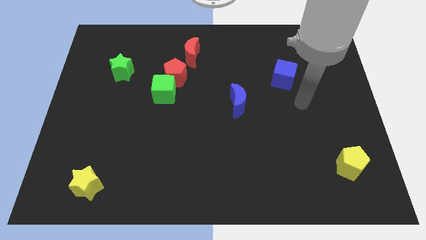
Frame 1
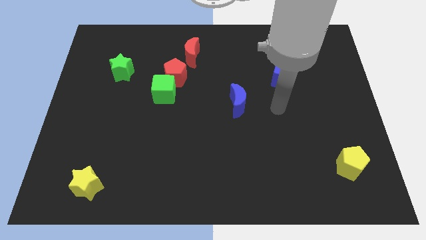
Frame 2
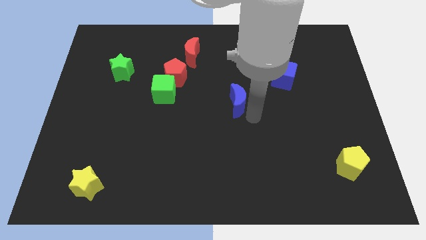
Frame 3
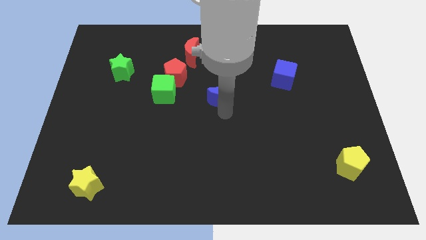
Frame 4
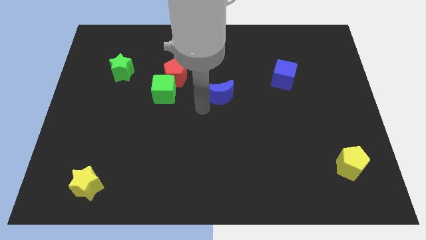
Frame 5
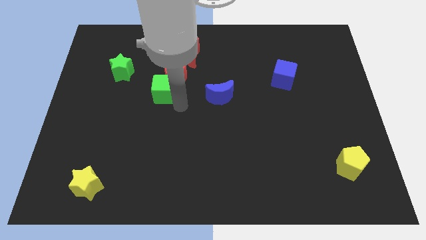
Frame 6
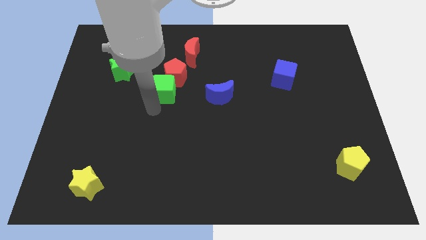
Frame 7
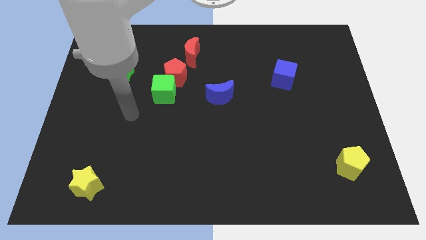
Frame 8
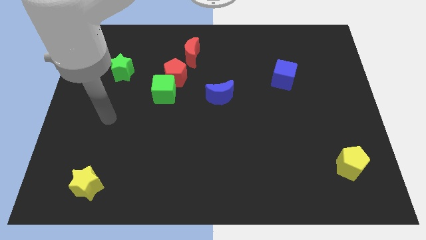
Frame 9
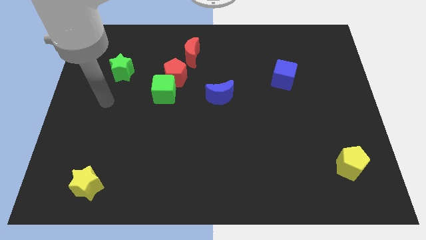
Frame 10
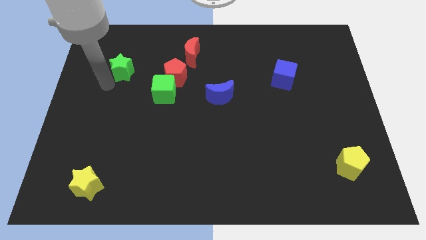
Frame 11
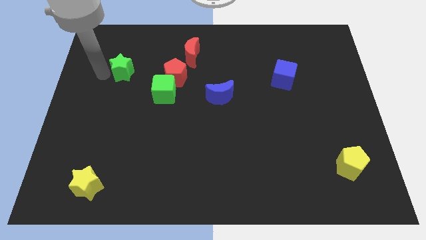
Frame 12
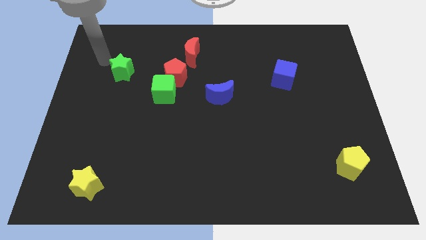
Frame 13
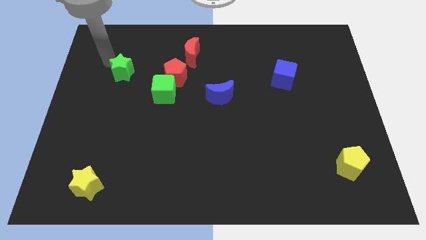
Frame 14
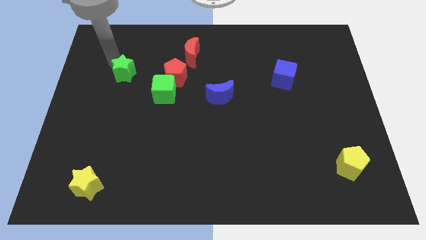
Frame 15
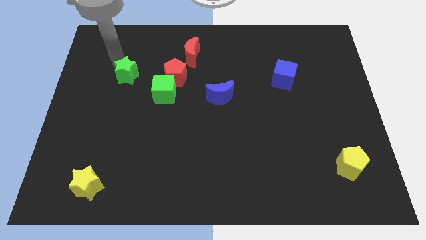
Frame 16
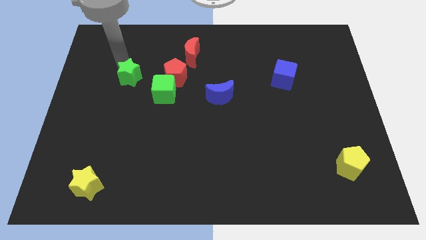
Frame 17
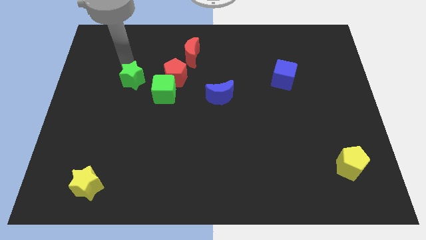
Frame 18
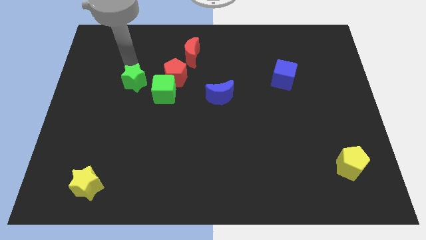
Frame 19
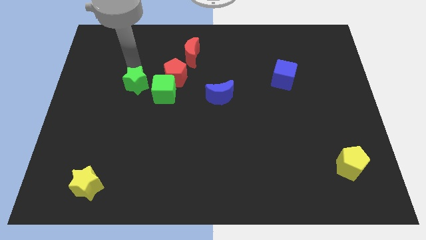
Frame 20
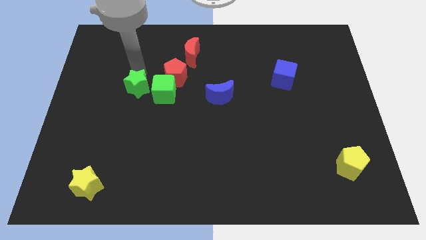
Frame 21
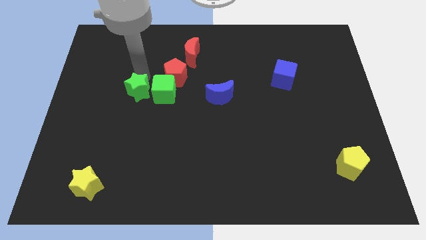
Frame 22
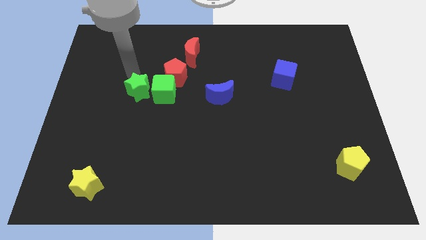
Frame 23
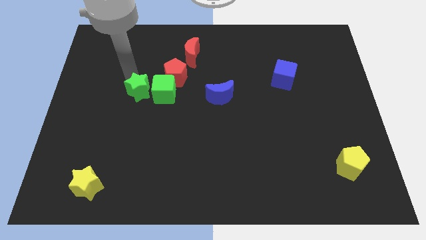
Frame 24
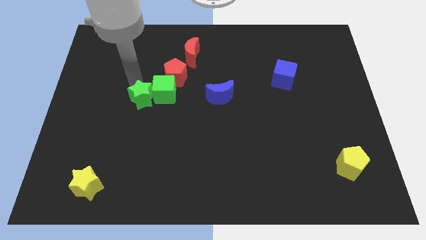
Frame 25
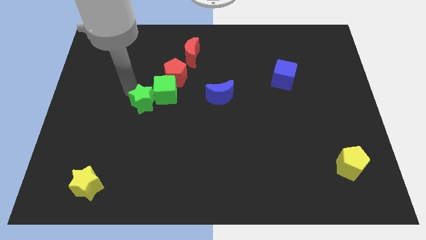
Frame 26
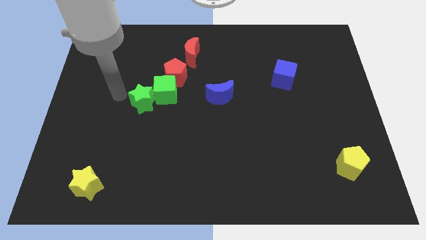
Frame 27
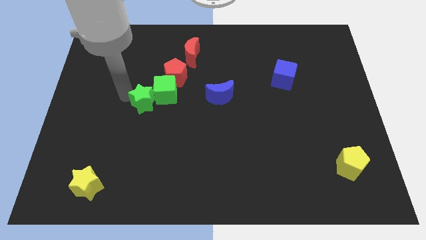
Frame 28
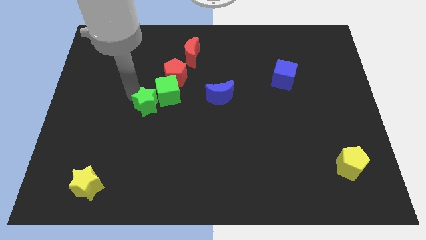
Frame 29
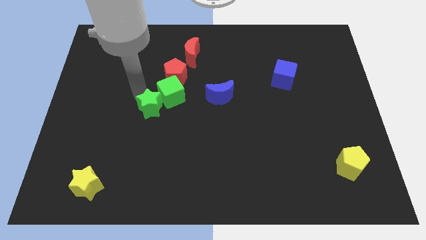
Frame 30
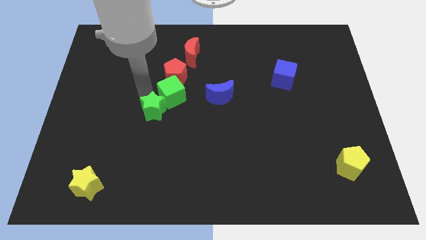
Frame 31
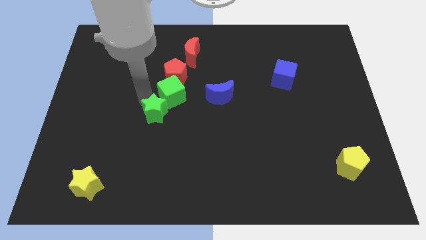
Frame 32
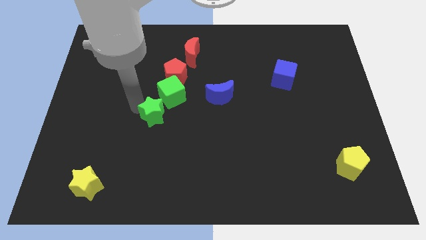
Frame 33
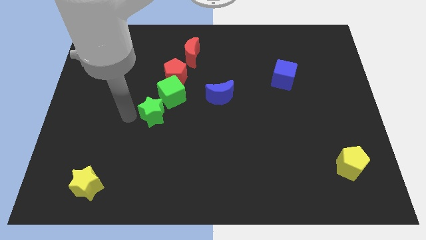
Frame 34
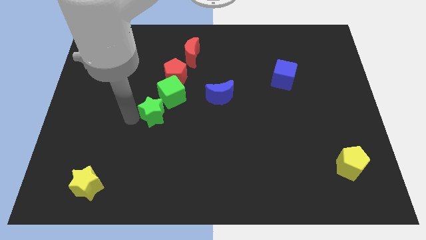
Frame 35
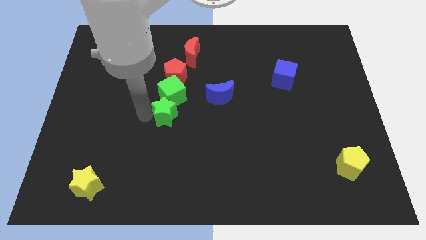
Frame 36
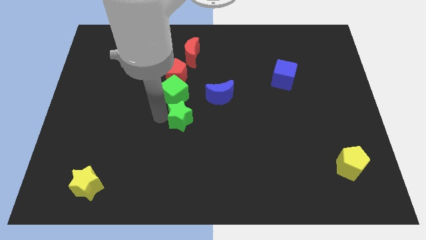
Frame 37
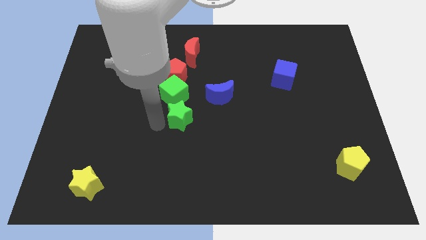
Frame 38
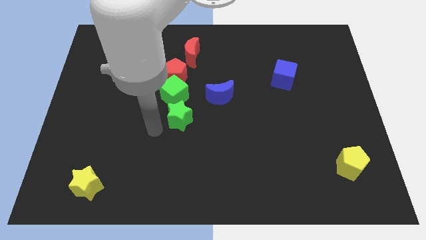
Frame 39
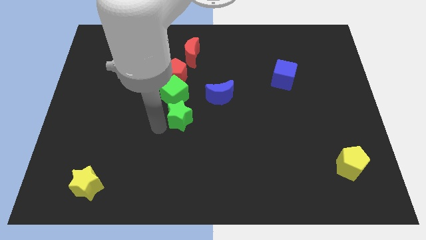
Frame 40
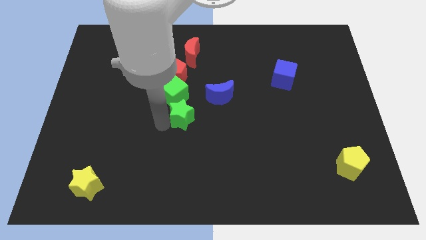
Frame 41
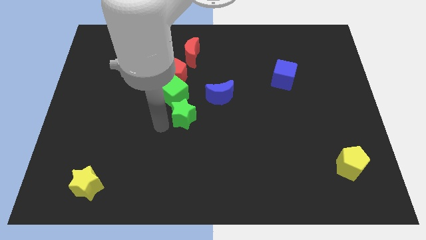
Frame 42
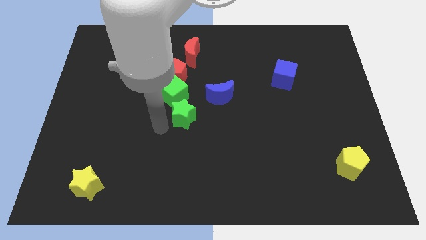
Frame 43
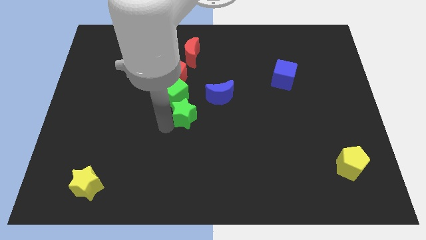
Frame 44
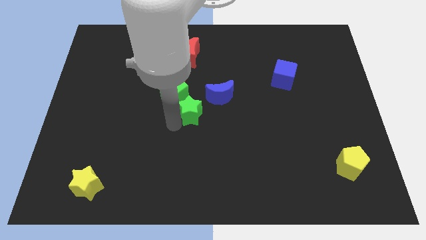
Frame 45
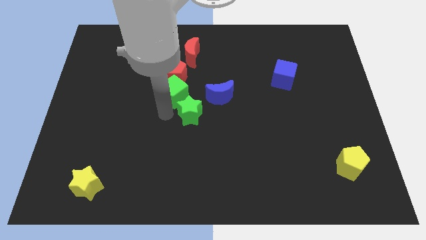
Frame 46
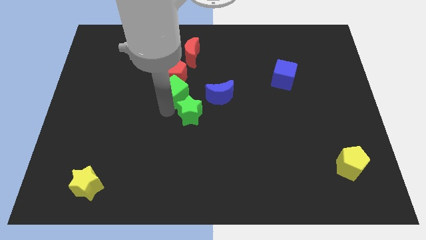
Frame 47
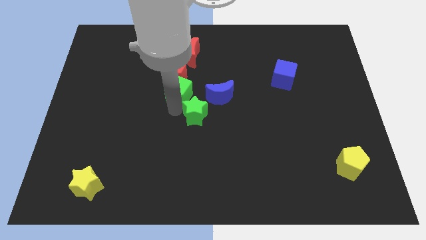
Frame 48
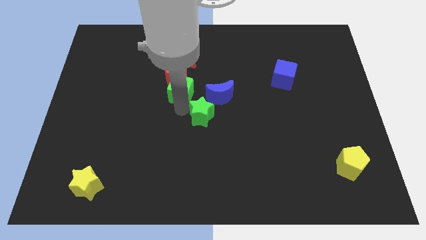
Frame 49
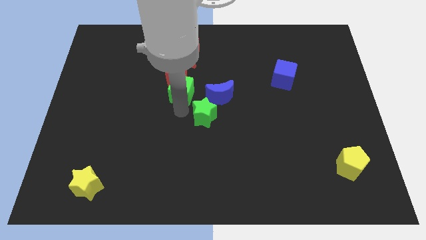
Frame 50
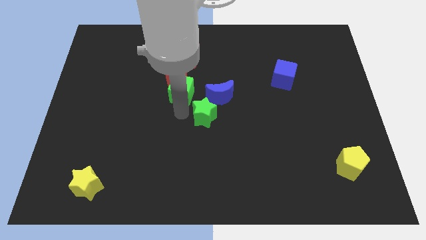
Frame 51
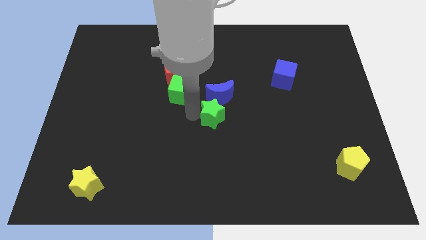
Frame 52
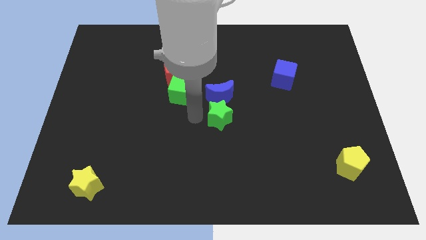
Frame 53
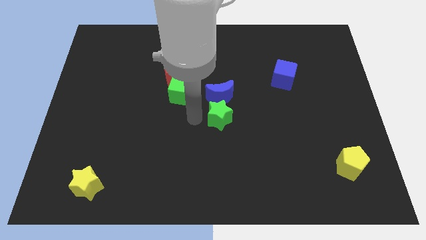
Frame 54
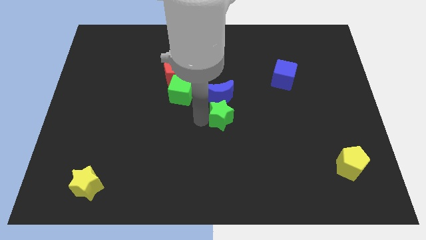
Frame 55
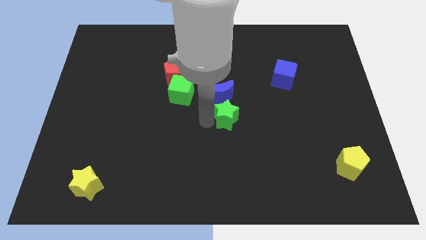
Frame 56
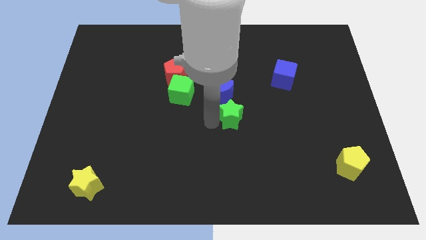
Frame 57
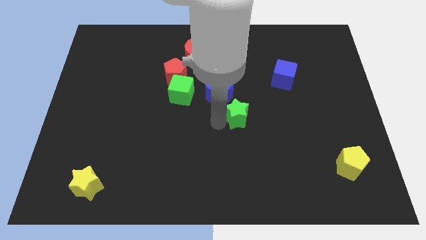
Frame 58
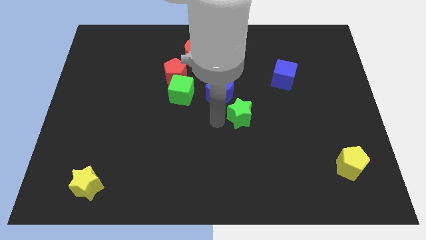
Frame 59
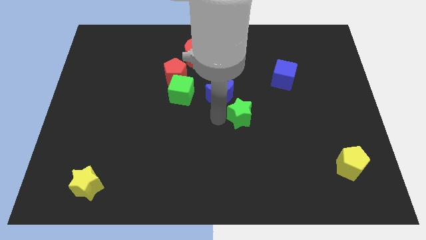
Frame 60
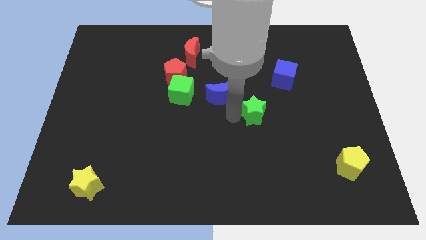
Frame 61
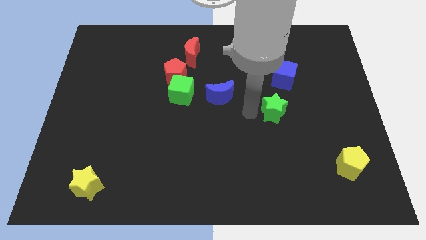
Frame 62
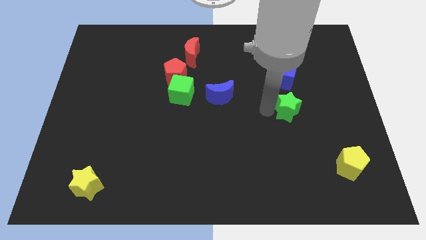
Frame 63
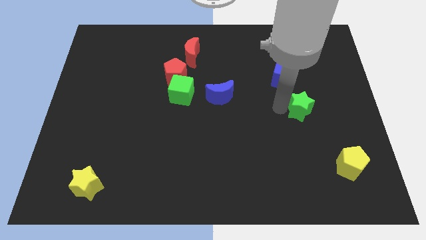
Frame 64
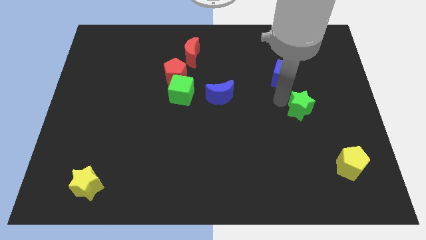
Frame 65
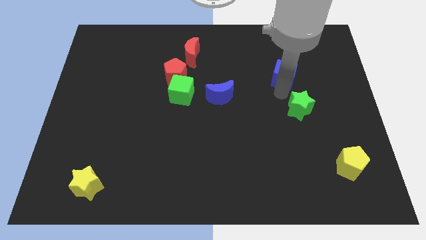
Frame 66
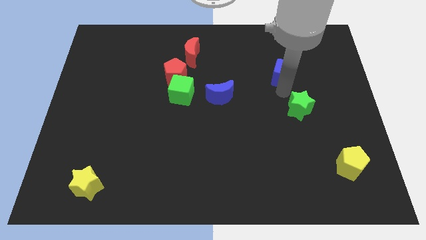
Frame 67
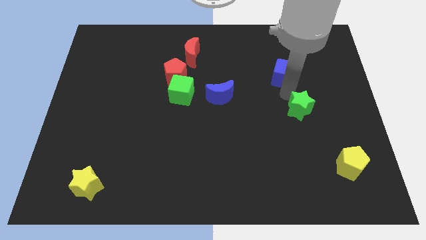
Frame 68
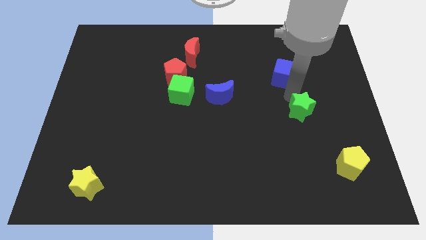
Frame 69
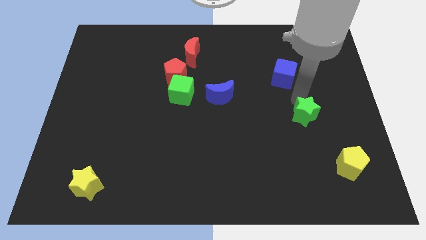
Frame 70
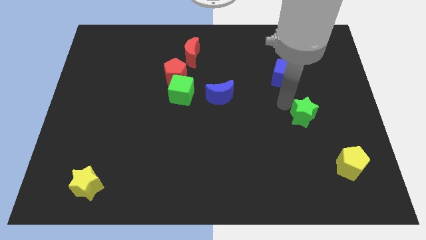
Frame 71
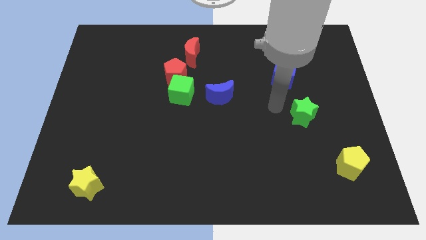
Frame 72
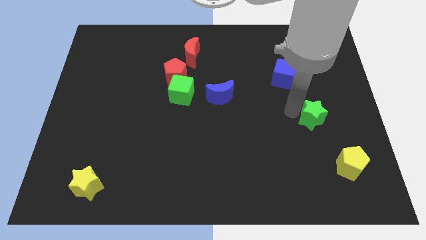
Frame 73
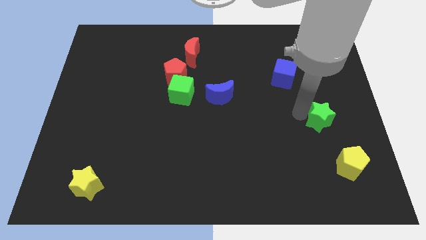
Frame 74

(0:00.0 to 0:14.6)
slide the green star above the yellow pentagon
